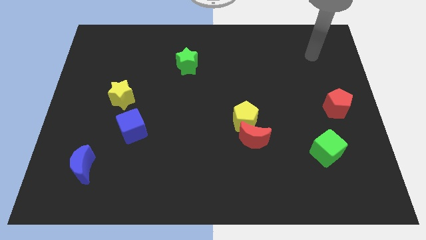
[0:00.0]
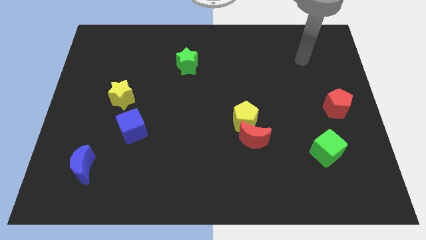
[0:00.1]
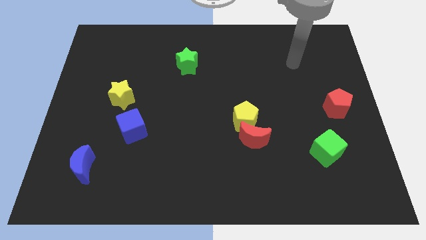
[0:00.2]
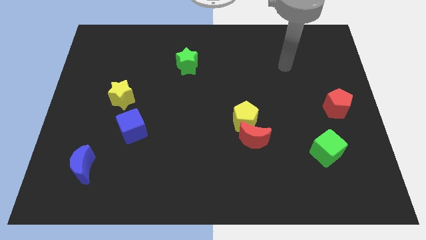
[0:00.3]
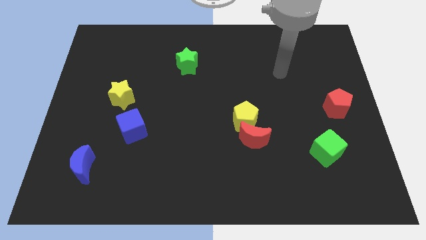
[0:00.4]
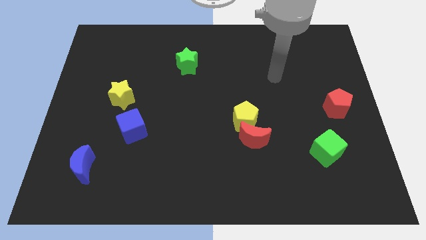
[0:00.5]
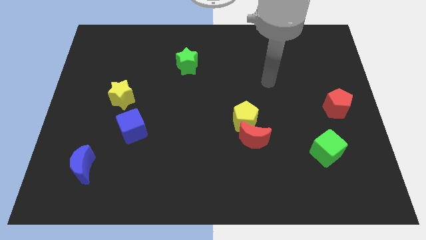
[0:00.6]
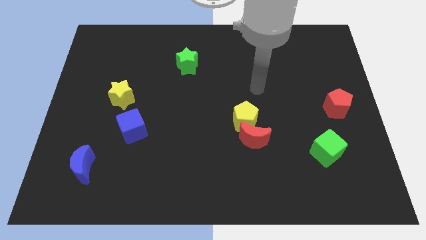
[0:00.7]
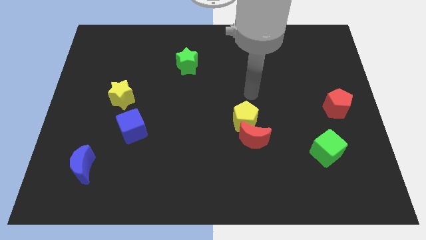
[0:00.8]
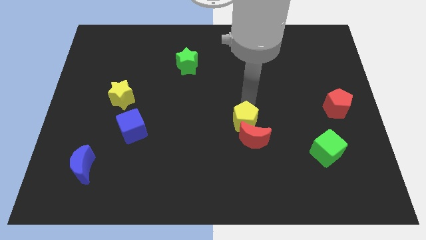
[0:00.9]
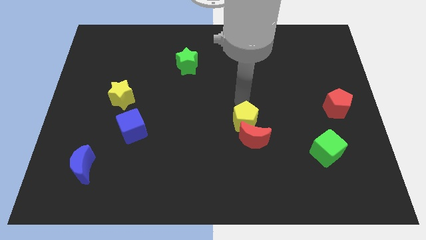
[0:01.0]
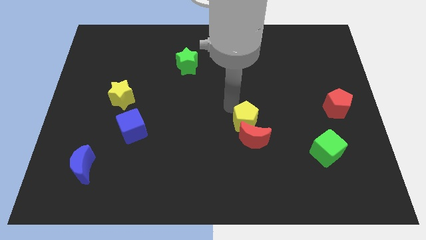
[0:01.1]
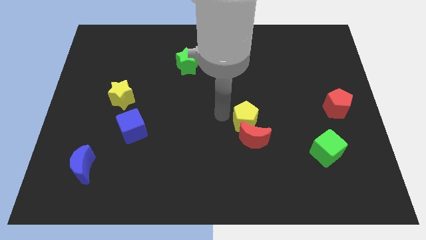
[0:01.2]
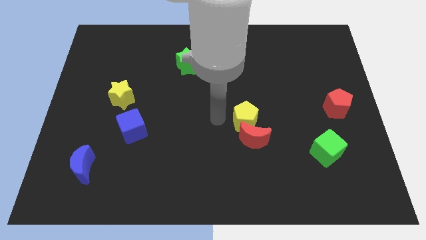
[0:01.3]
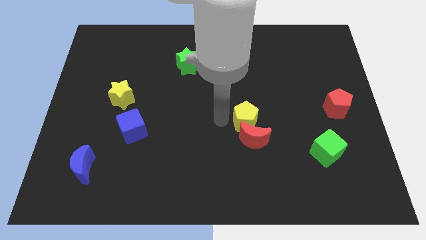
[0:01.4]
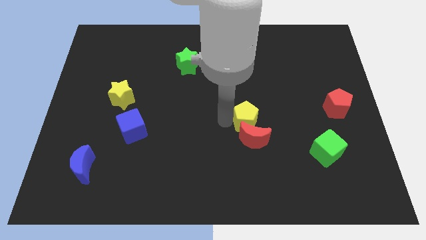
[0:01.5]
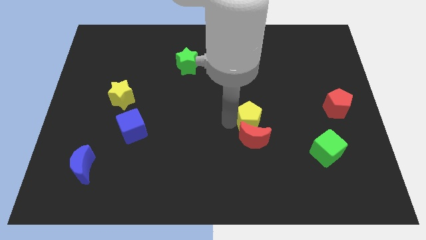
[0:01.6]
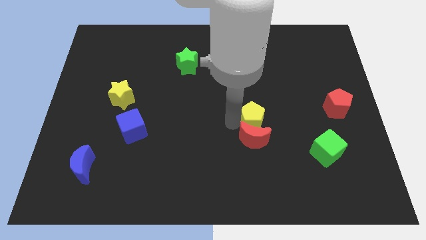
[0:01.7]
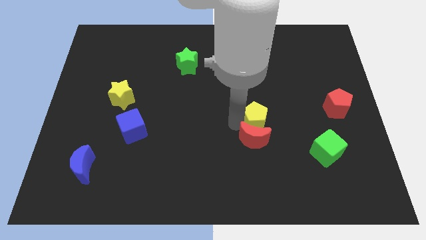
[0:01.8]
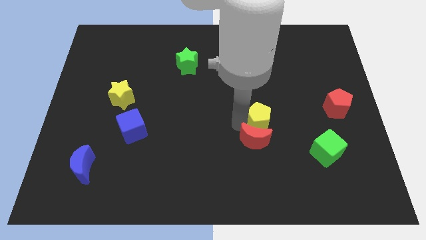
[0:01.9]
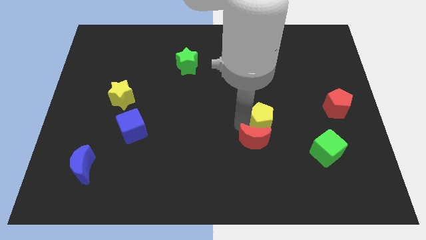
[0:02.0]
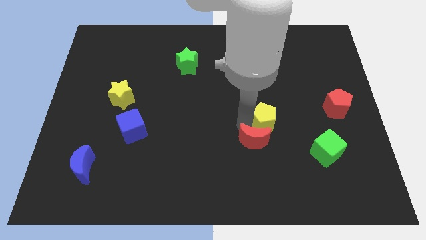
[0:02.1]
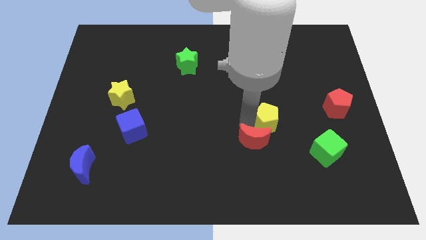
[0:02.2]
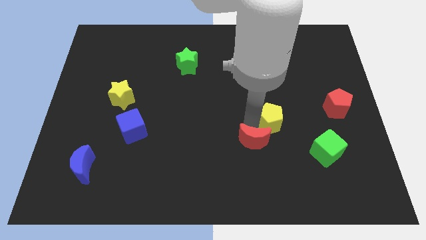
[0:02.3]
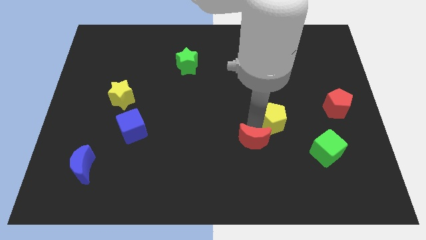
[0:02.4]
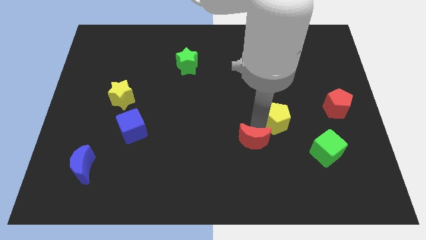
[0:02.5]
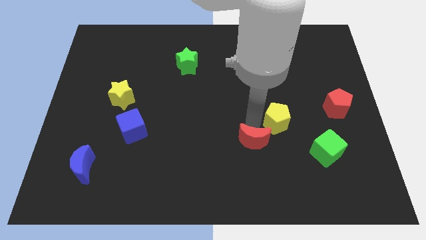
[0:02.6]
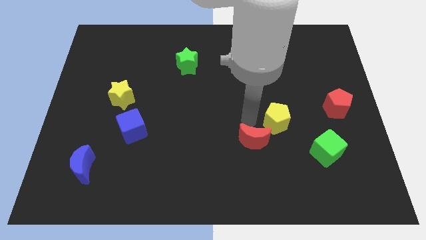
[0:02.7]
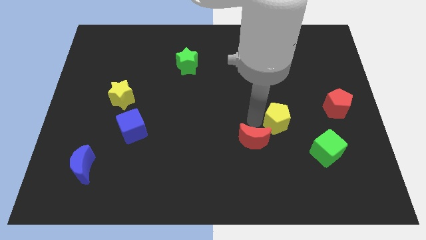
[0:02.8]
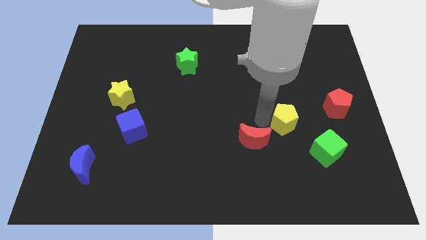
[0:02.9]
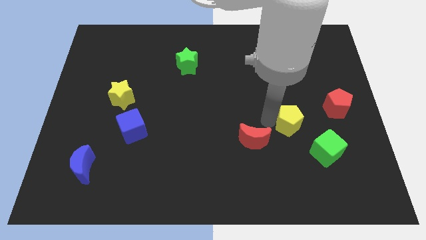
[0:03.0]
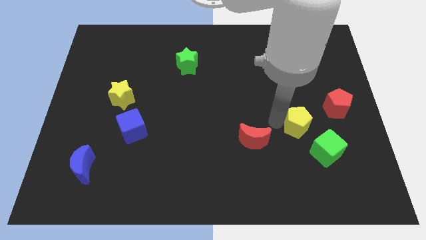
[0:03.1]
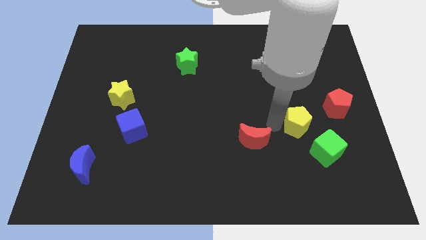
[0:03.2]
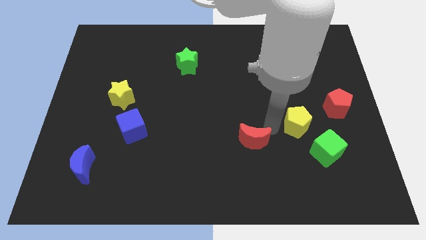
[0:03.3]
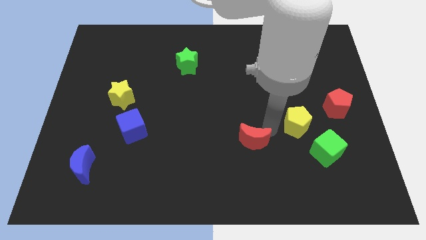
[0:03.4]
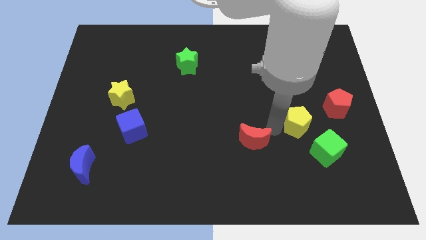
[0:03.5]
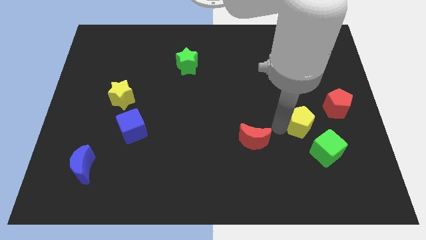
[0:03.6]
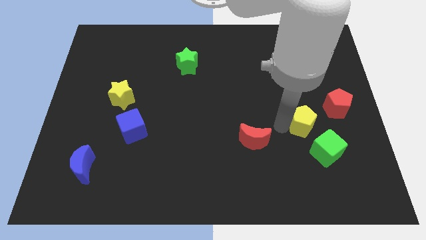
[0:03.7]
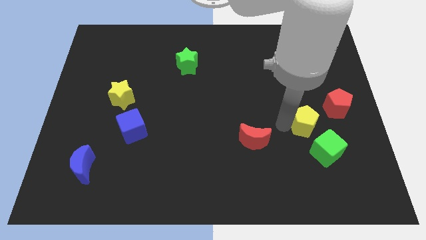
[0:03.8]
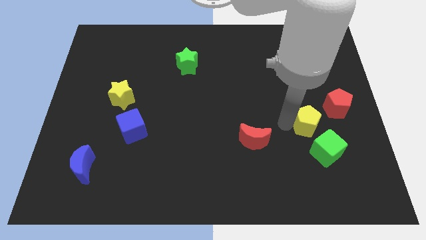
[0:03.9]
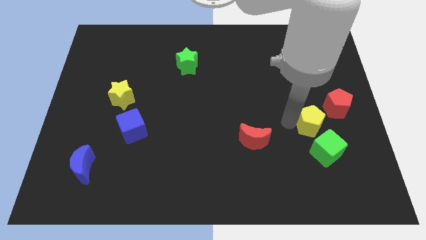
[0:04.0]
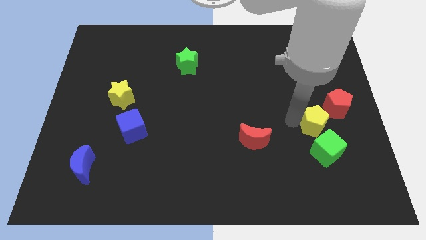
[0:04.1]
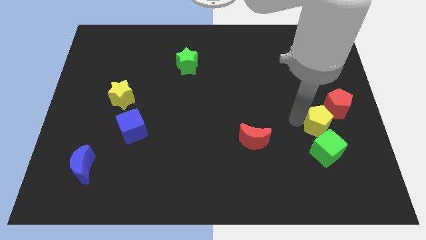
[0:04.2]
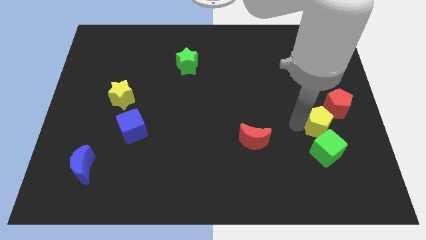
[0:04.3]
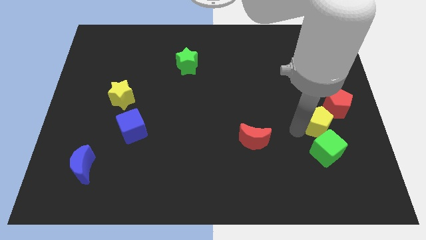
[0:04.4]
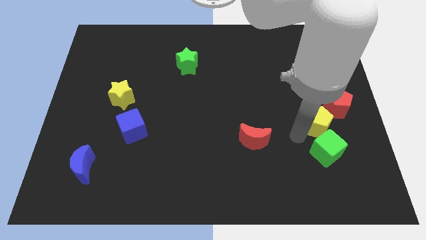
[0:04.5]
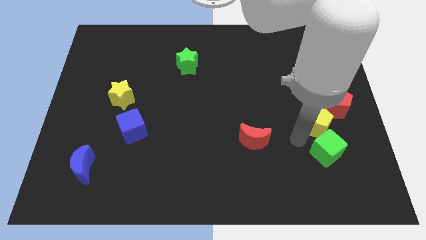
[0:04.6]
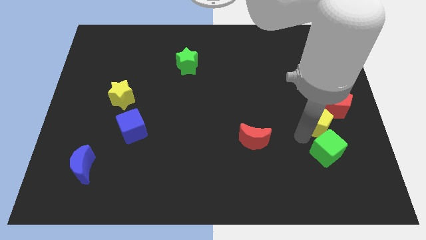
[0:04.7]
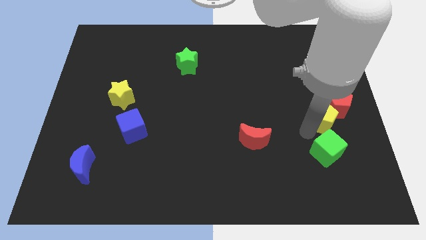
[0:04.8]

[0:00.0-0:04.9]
slide the yellow pentagon to the red pentagon

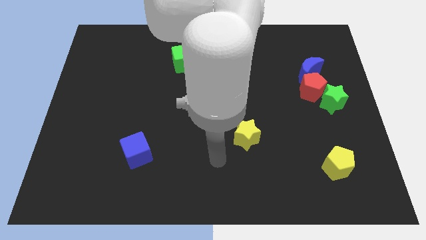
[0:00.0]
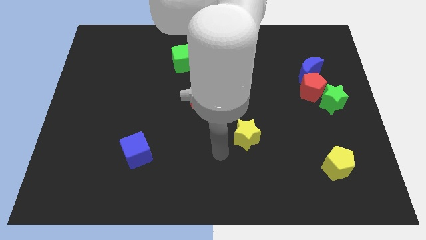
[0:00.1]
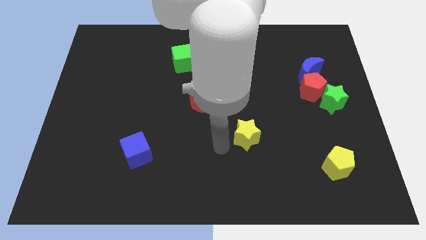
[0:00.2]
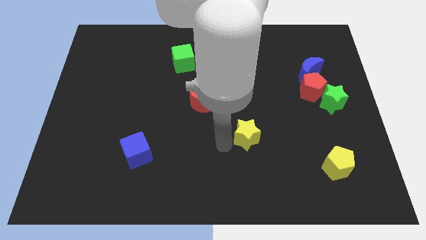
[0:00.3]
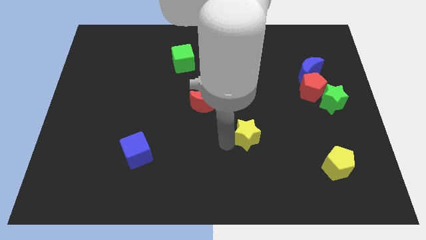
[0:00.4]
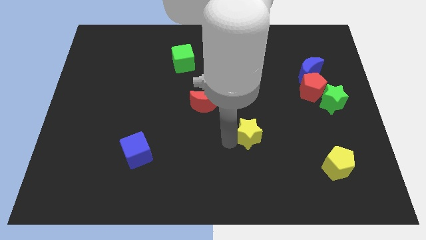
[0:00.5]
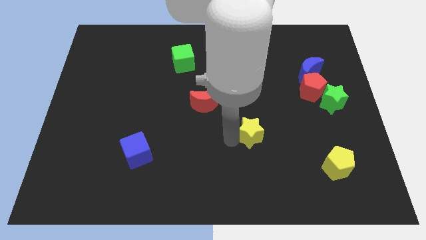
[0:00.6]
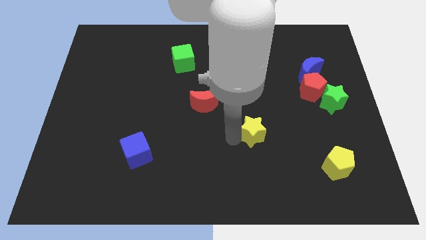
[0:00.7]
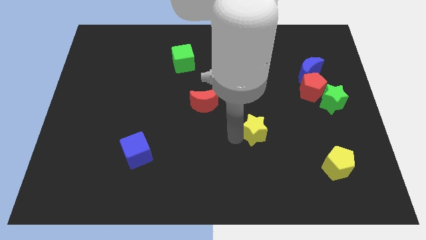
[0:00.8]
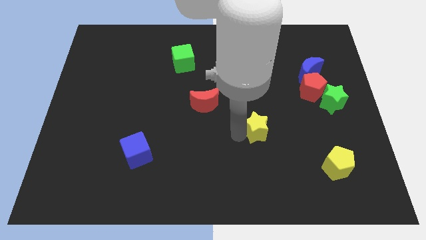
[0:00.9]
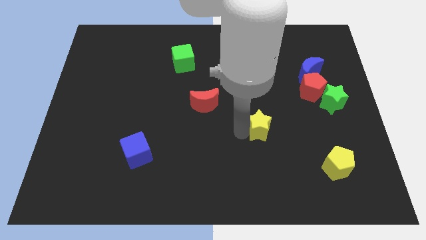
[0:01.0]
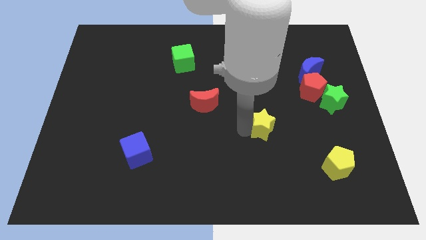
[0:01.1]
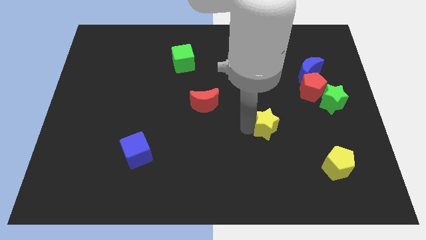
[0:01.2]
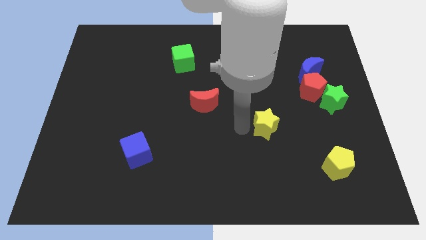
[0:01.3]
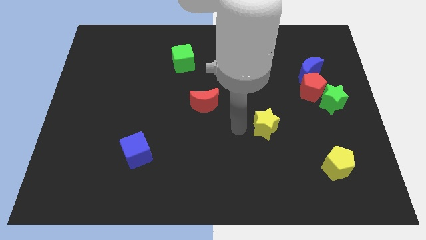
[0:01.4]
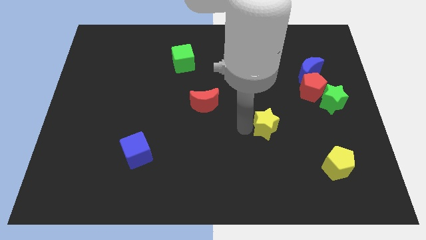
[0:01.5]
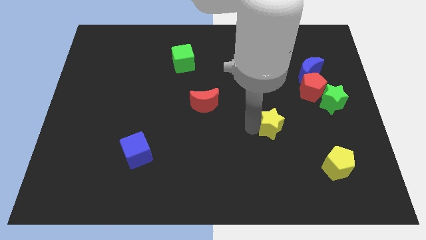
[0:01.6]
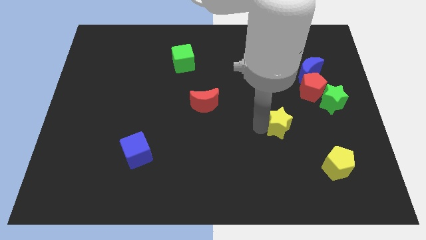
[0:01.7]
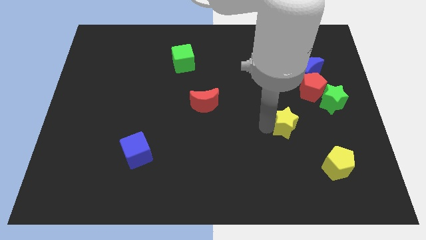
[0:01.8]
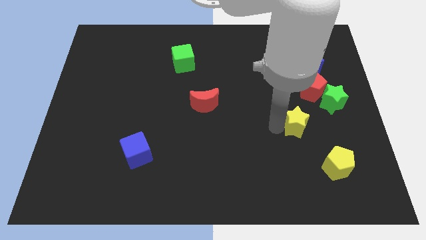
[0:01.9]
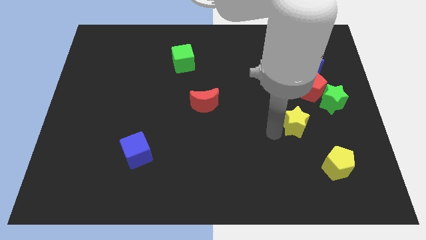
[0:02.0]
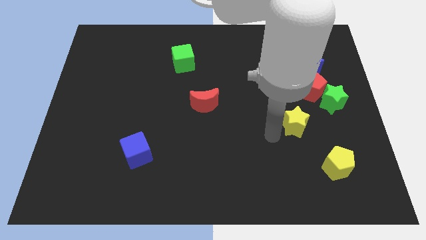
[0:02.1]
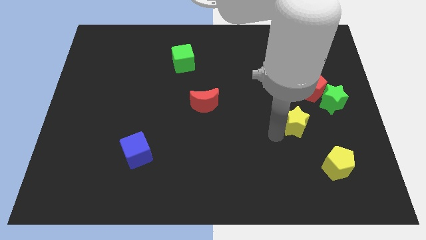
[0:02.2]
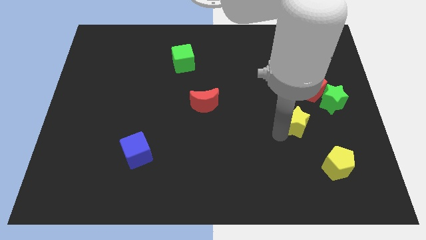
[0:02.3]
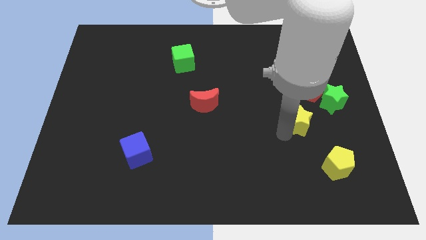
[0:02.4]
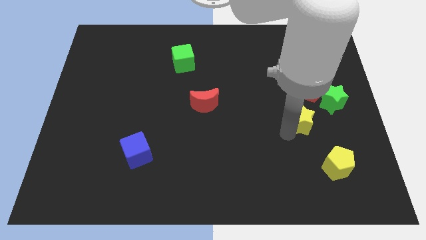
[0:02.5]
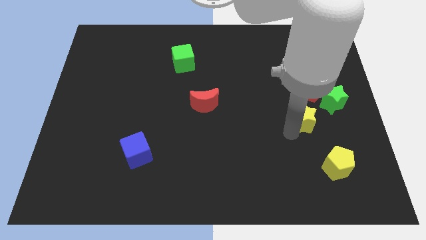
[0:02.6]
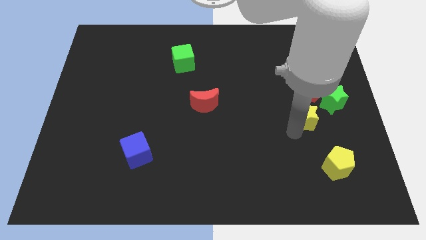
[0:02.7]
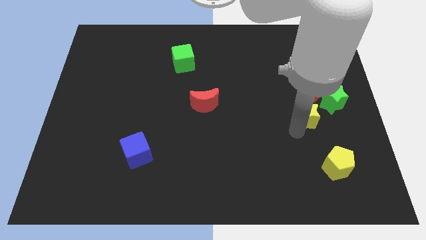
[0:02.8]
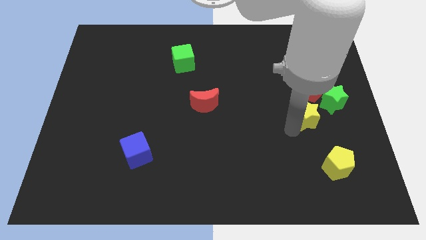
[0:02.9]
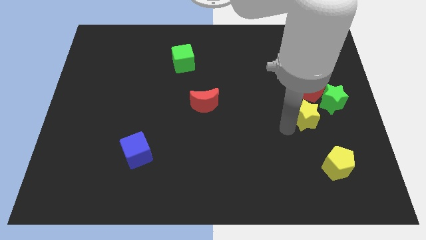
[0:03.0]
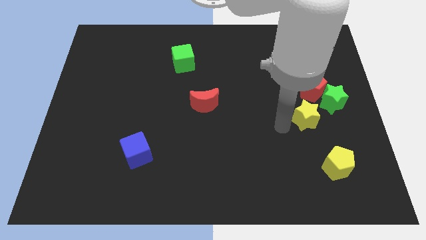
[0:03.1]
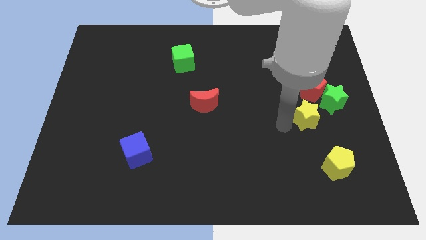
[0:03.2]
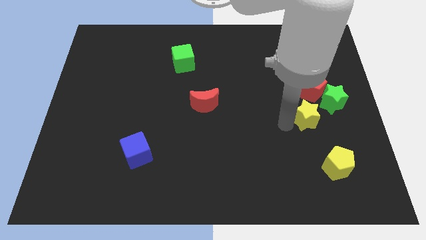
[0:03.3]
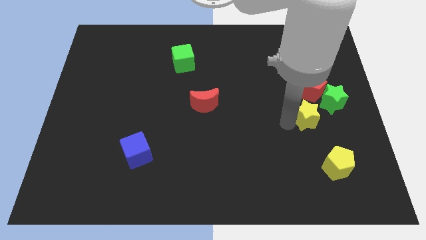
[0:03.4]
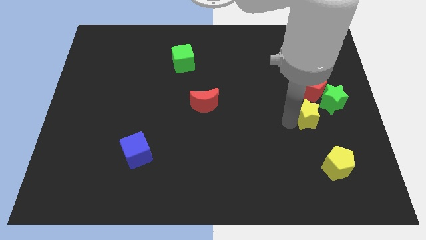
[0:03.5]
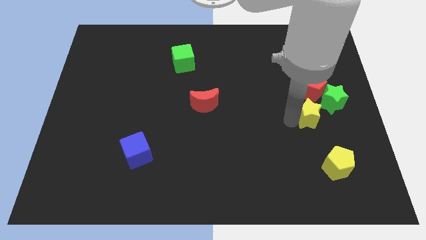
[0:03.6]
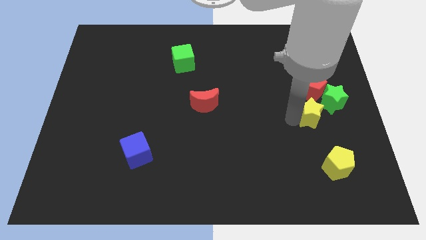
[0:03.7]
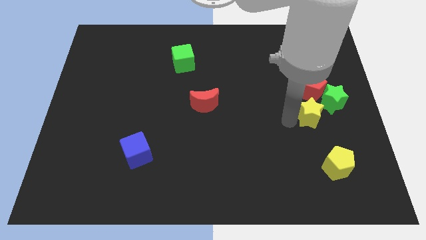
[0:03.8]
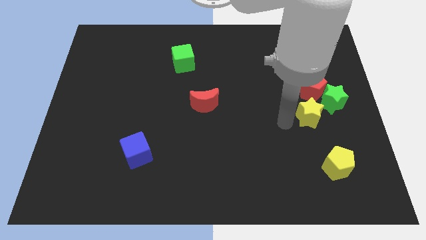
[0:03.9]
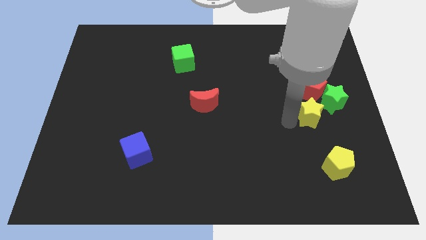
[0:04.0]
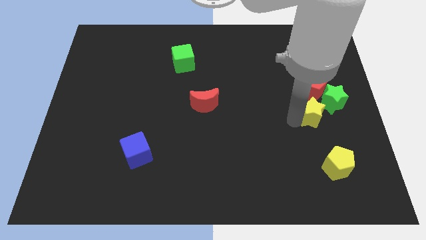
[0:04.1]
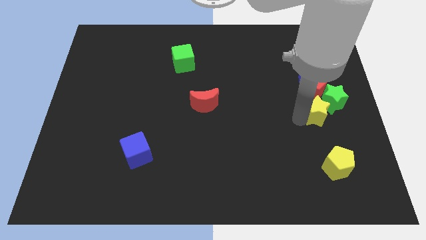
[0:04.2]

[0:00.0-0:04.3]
move the yellow star next to the green star
